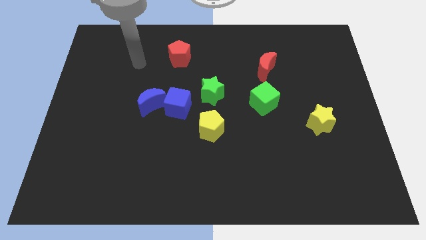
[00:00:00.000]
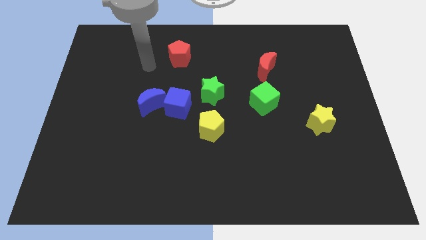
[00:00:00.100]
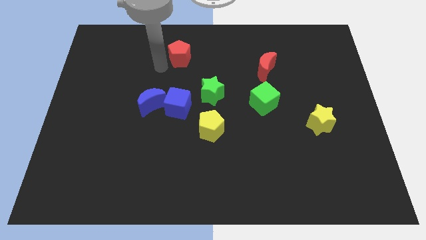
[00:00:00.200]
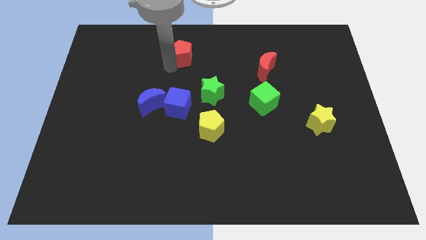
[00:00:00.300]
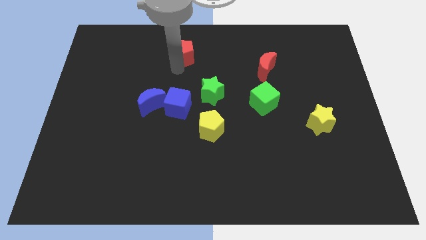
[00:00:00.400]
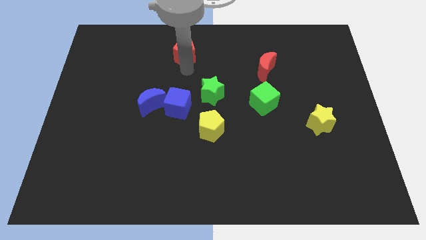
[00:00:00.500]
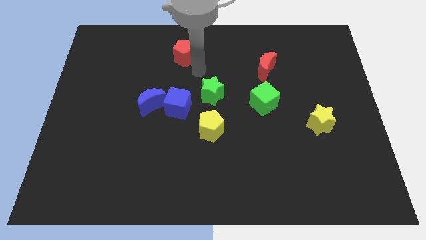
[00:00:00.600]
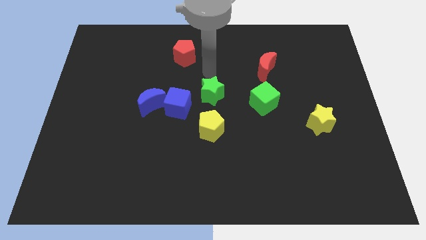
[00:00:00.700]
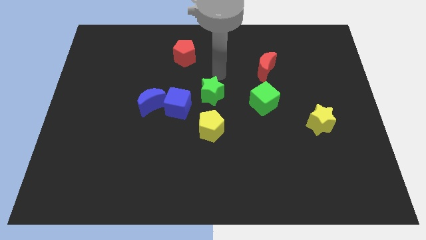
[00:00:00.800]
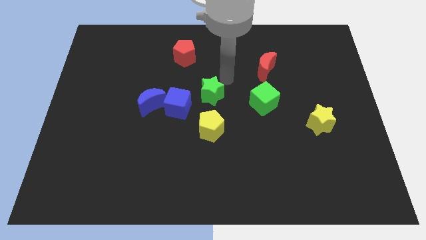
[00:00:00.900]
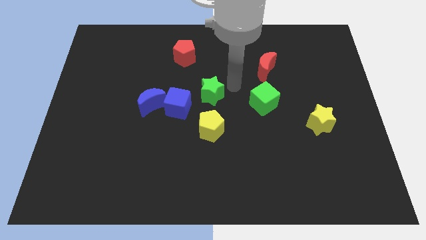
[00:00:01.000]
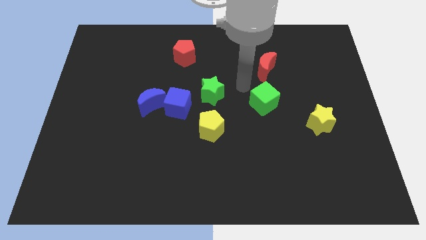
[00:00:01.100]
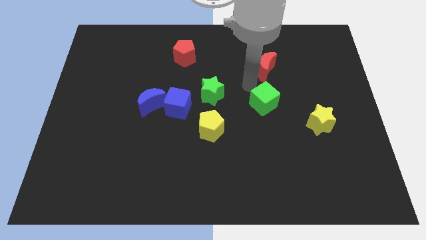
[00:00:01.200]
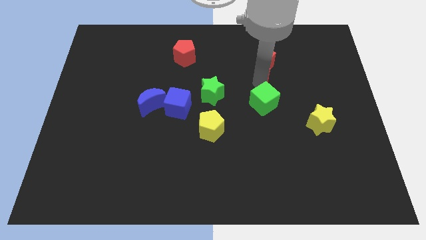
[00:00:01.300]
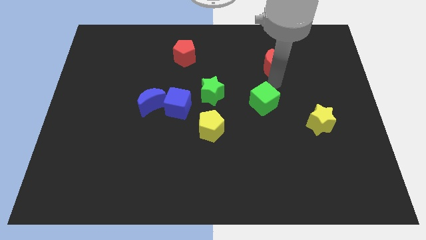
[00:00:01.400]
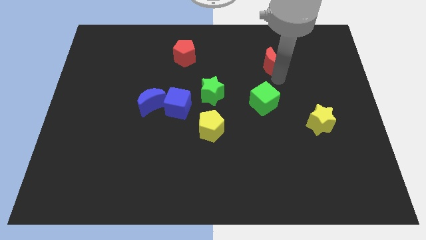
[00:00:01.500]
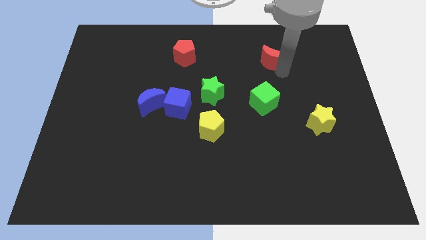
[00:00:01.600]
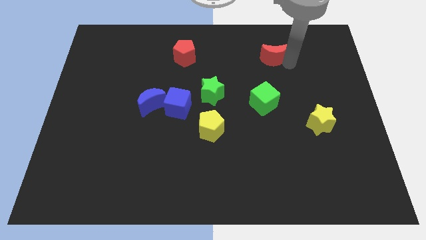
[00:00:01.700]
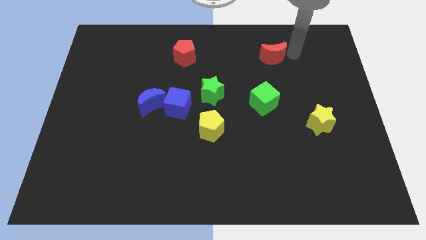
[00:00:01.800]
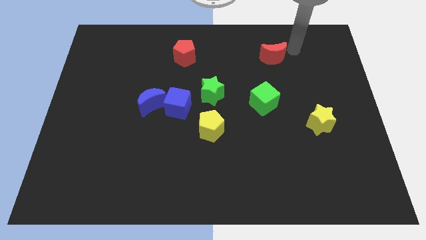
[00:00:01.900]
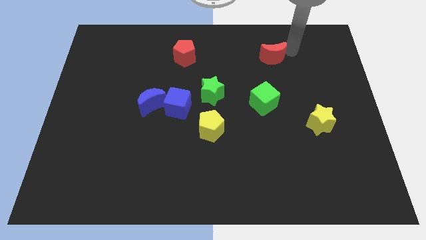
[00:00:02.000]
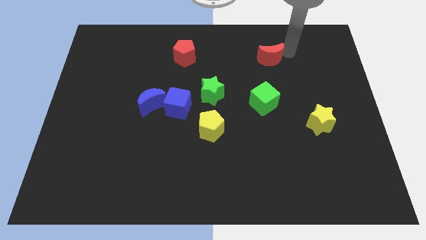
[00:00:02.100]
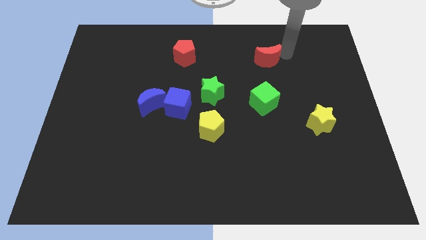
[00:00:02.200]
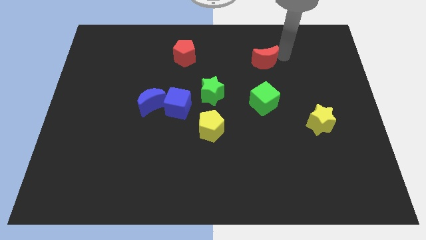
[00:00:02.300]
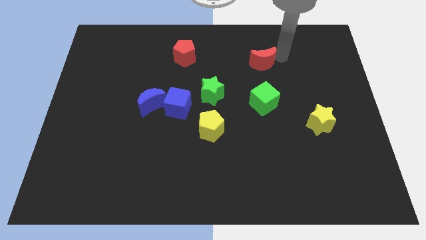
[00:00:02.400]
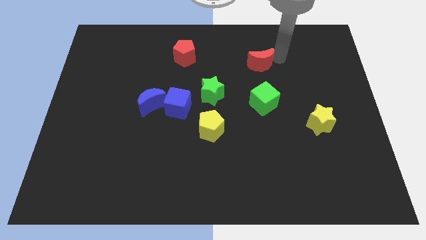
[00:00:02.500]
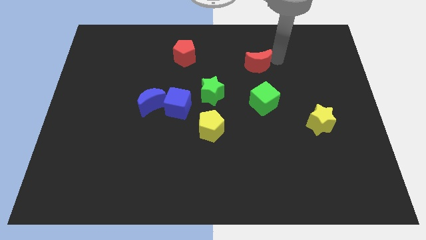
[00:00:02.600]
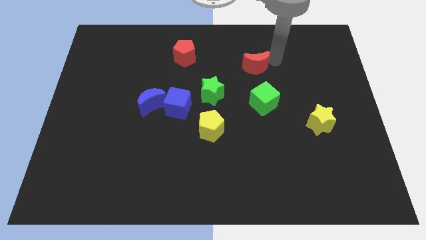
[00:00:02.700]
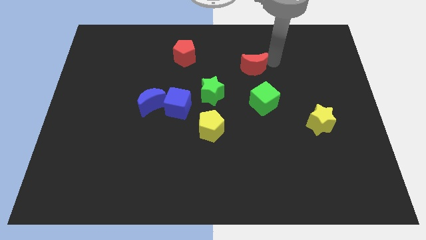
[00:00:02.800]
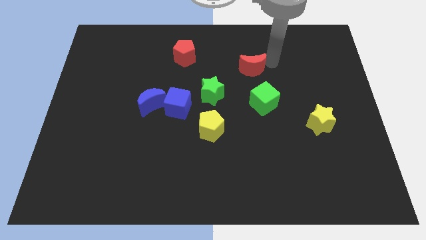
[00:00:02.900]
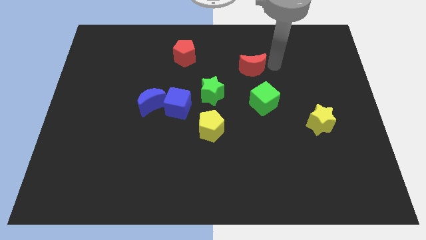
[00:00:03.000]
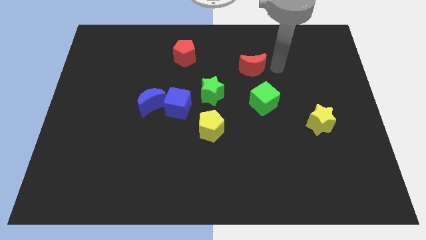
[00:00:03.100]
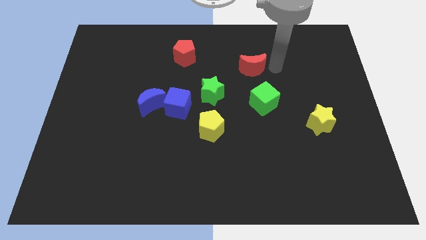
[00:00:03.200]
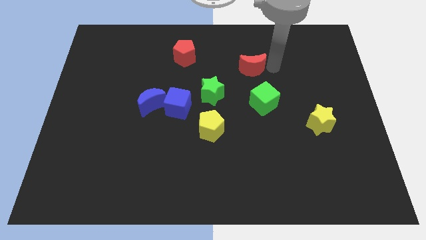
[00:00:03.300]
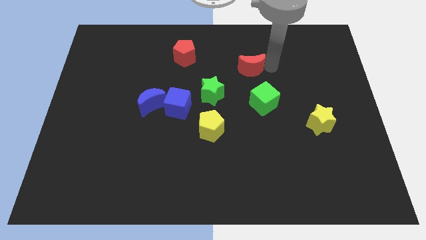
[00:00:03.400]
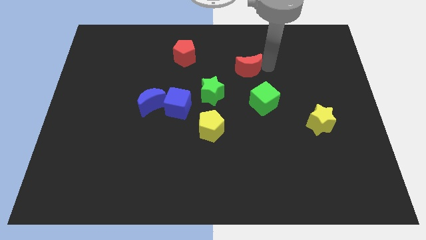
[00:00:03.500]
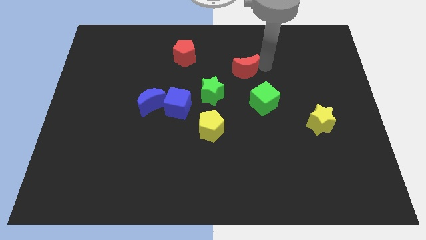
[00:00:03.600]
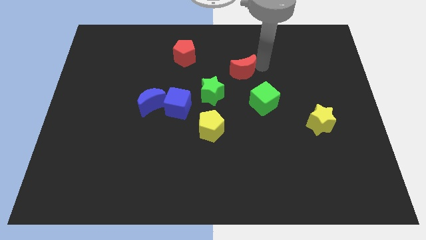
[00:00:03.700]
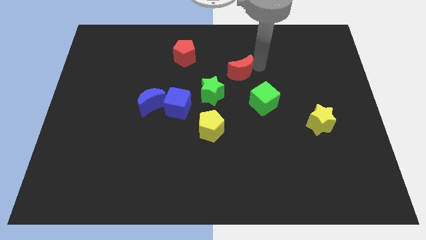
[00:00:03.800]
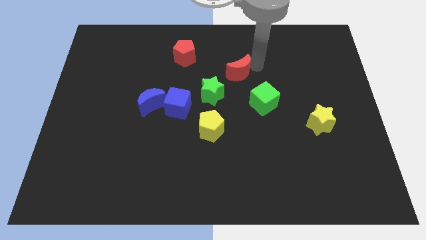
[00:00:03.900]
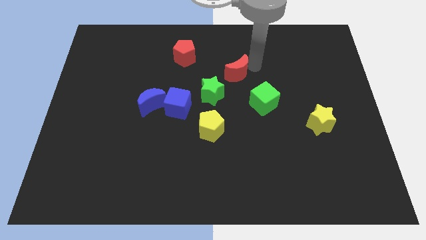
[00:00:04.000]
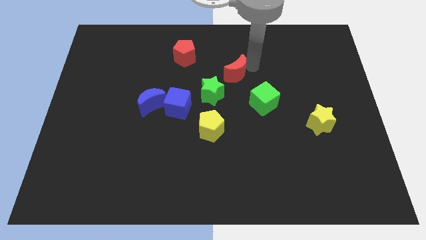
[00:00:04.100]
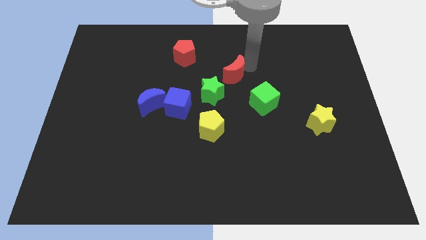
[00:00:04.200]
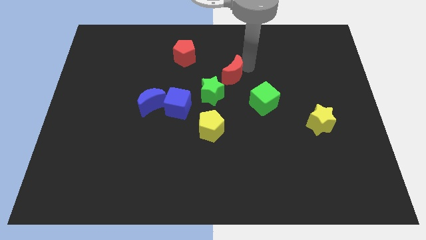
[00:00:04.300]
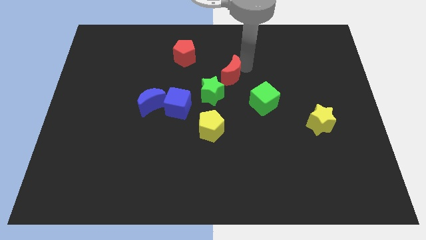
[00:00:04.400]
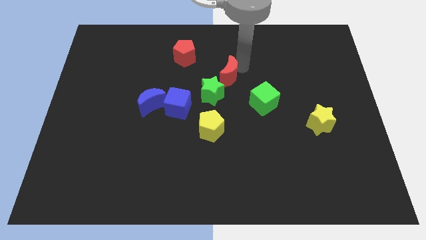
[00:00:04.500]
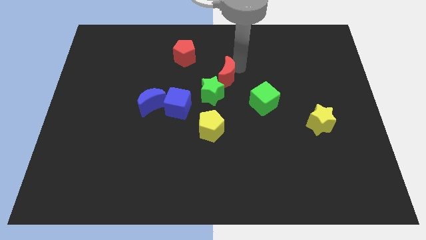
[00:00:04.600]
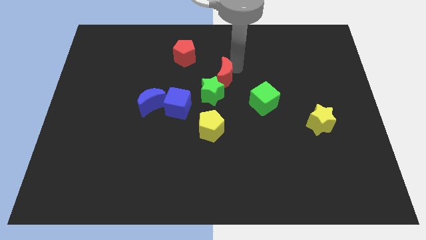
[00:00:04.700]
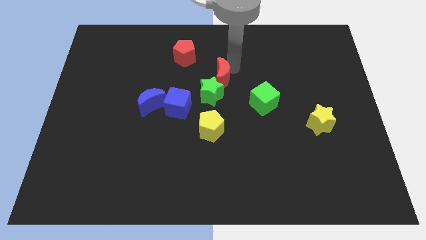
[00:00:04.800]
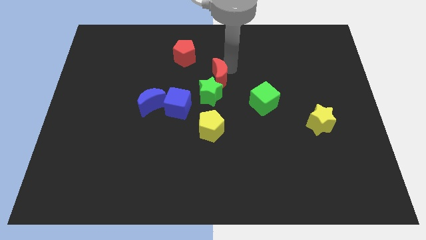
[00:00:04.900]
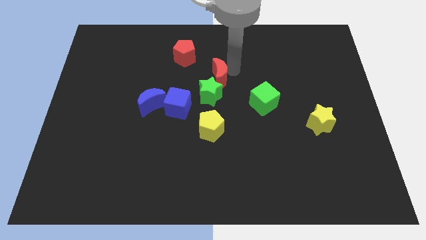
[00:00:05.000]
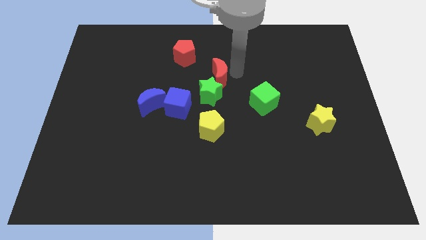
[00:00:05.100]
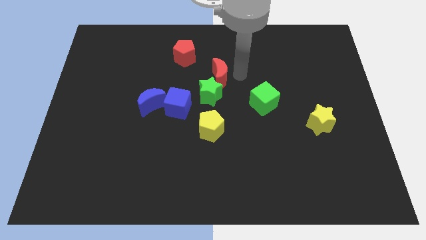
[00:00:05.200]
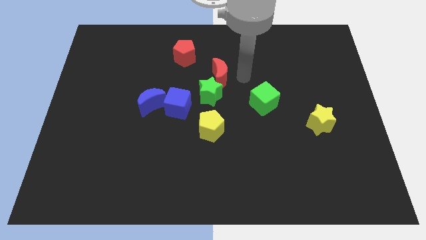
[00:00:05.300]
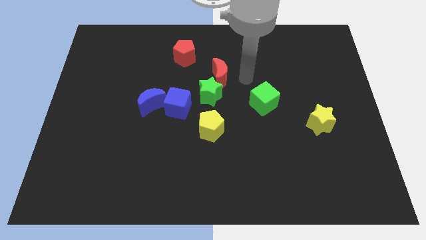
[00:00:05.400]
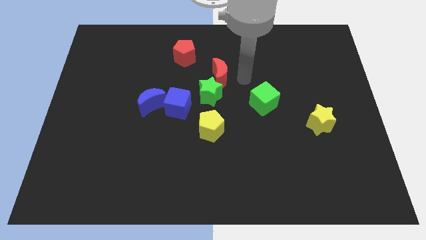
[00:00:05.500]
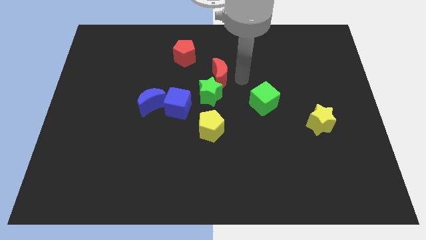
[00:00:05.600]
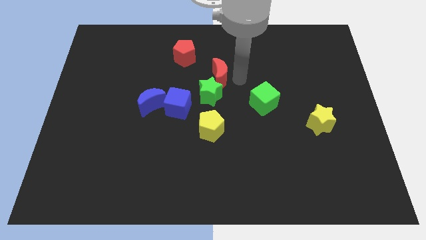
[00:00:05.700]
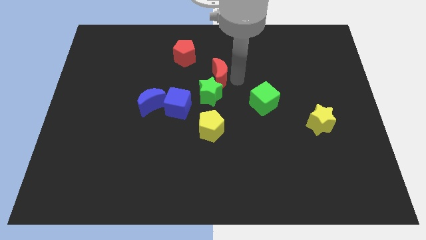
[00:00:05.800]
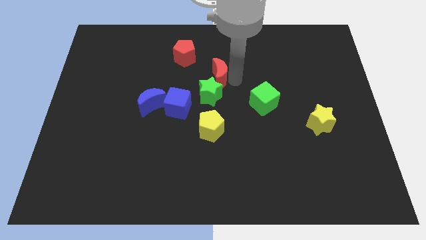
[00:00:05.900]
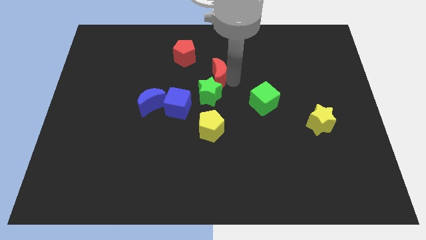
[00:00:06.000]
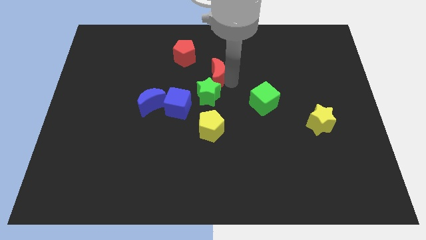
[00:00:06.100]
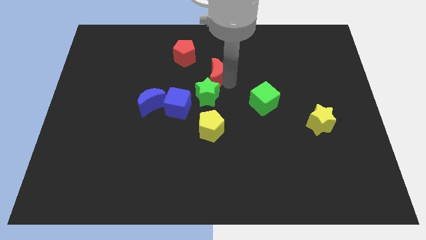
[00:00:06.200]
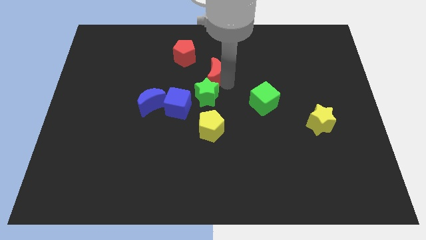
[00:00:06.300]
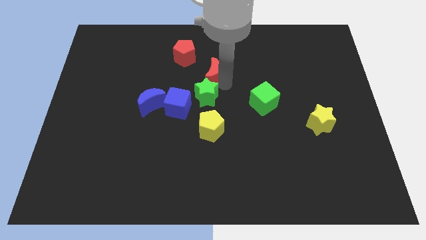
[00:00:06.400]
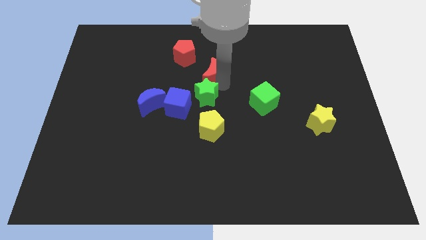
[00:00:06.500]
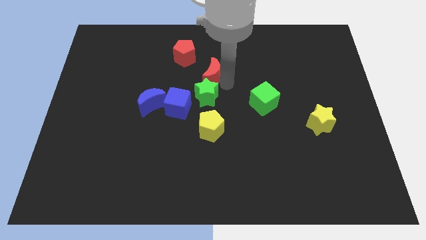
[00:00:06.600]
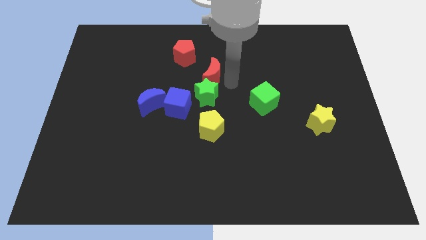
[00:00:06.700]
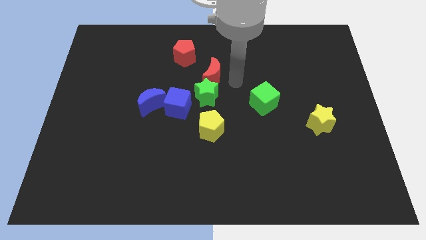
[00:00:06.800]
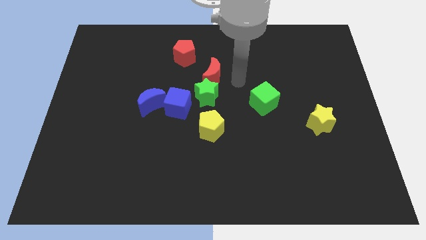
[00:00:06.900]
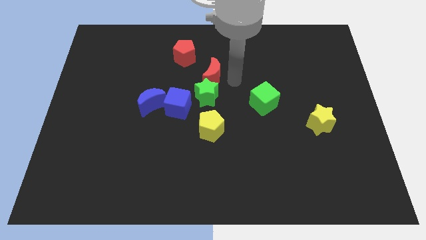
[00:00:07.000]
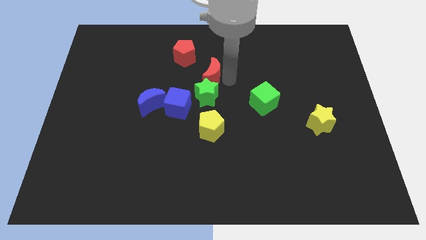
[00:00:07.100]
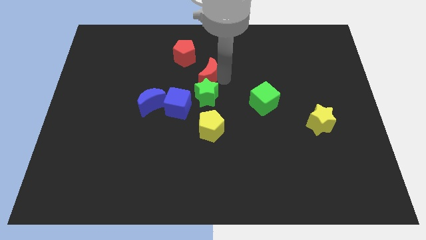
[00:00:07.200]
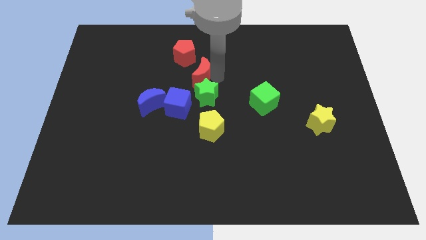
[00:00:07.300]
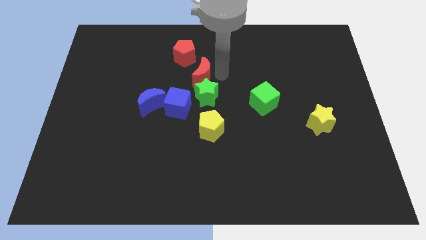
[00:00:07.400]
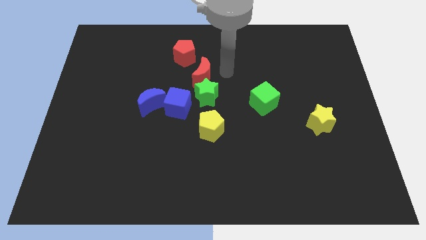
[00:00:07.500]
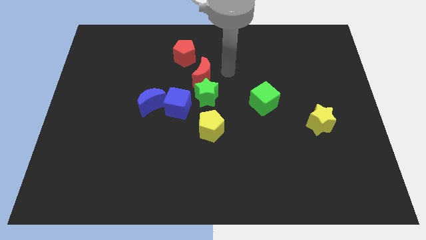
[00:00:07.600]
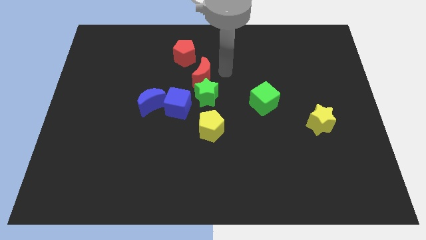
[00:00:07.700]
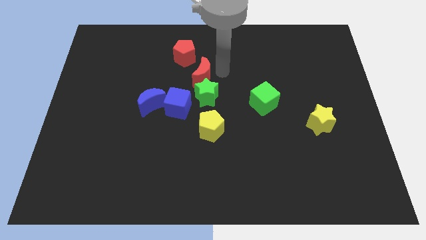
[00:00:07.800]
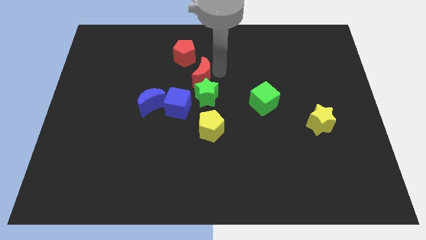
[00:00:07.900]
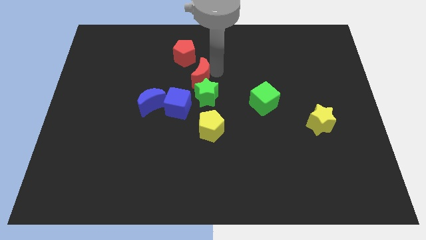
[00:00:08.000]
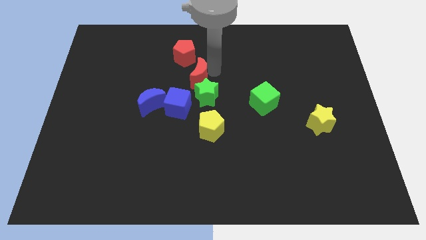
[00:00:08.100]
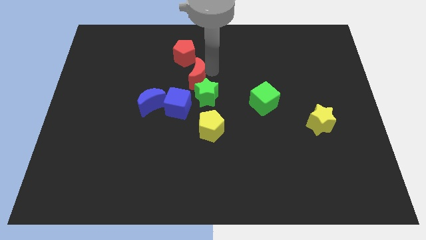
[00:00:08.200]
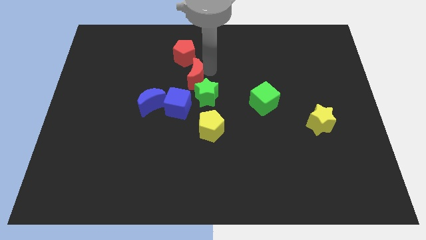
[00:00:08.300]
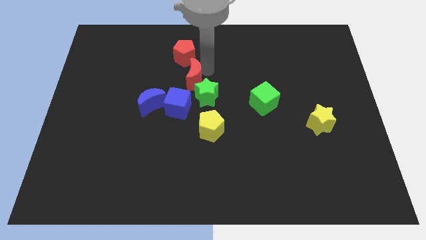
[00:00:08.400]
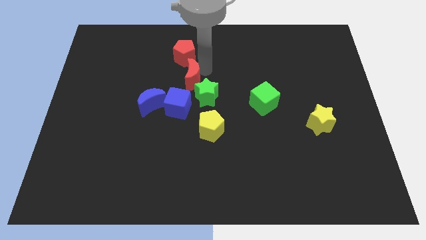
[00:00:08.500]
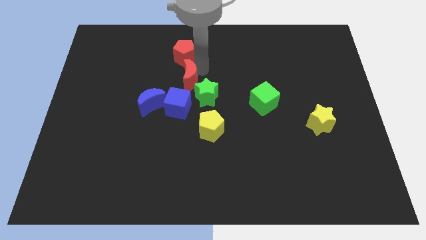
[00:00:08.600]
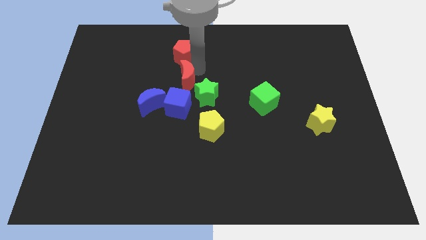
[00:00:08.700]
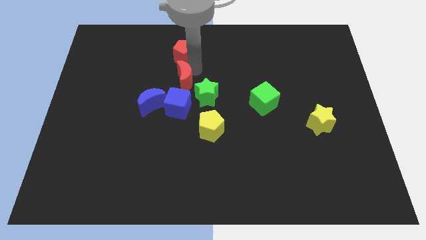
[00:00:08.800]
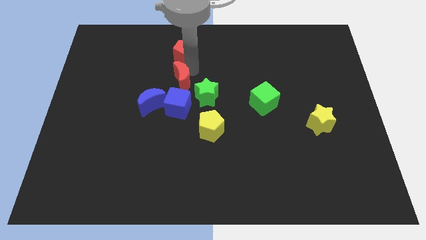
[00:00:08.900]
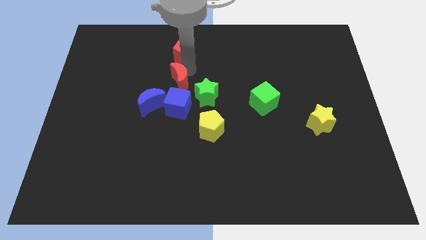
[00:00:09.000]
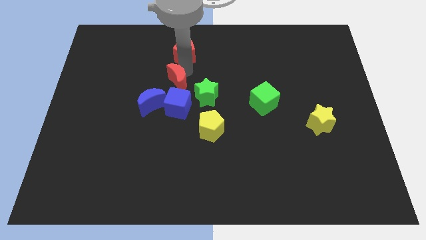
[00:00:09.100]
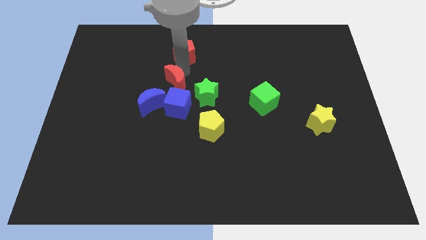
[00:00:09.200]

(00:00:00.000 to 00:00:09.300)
push the red moon diagonally up and to the left of the blue cube
